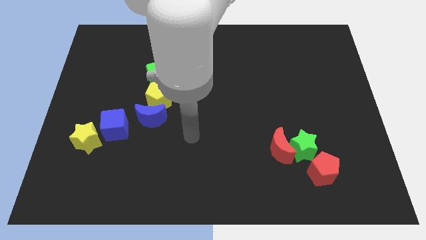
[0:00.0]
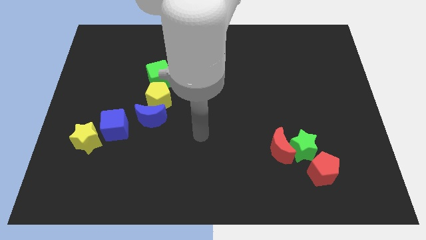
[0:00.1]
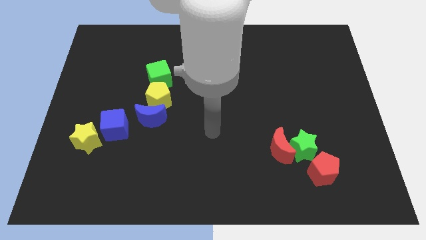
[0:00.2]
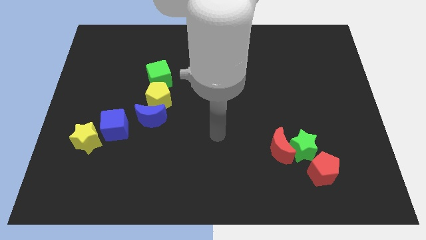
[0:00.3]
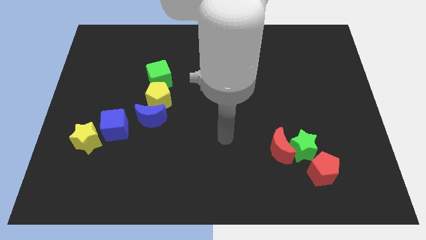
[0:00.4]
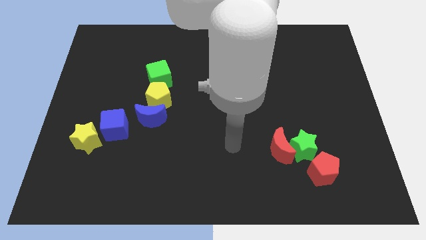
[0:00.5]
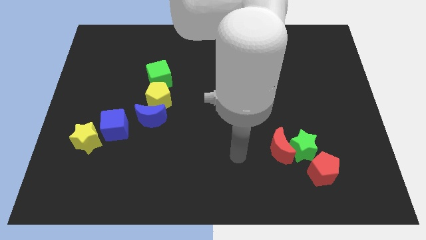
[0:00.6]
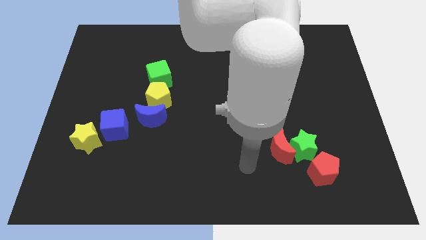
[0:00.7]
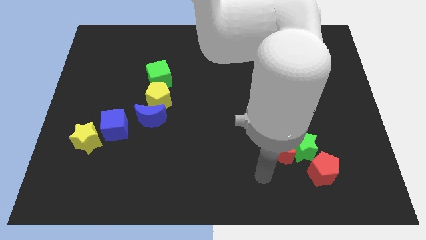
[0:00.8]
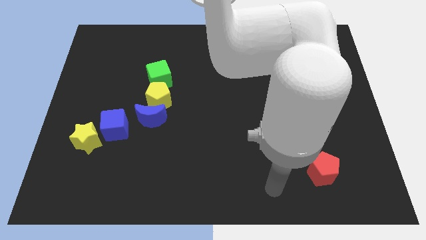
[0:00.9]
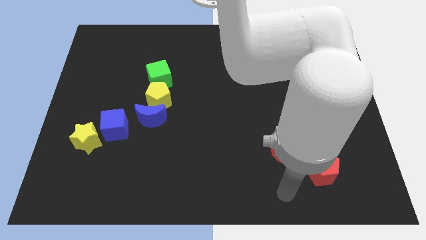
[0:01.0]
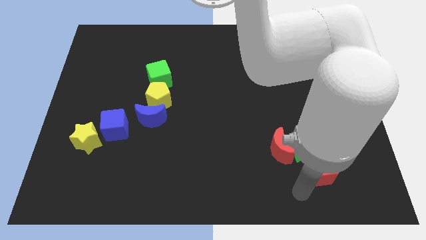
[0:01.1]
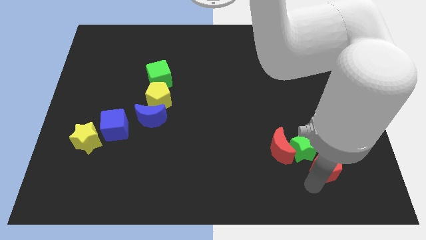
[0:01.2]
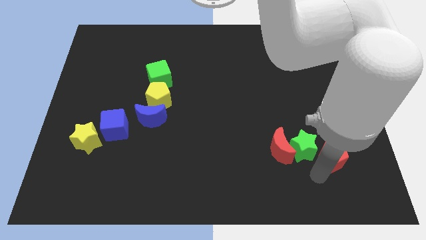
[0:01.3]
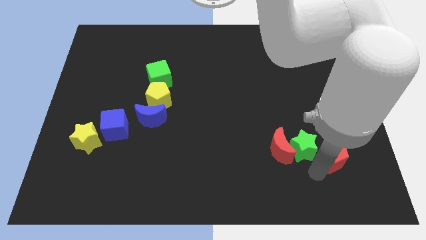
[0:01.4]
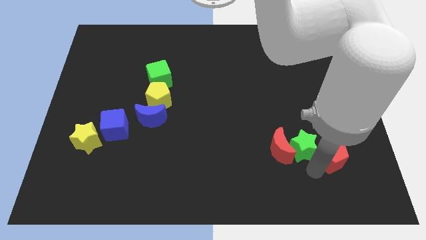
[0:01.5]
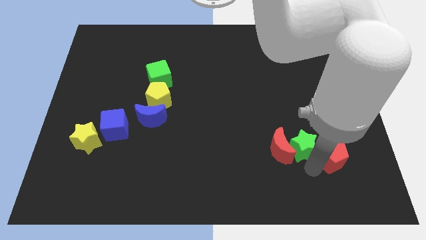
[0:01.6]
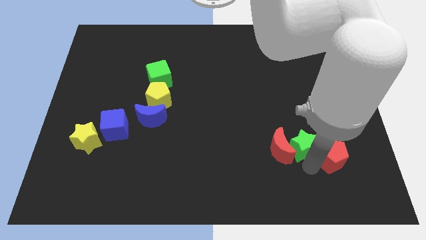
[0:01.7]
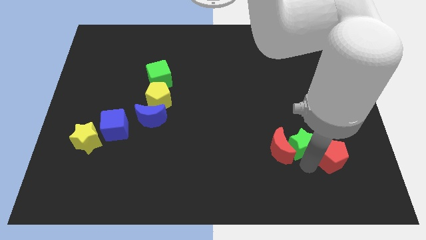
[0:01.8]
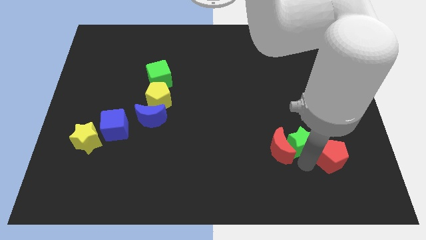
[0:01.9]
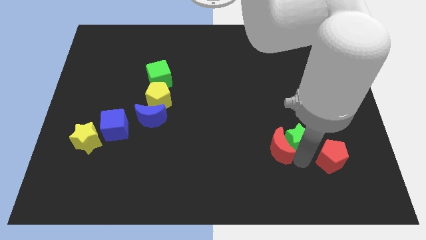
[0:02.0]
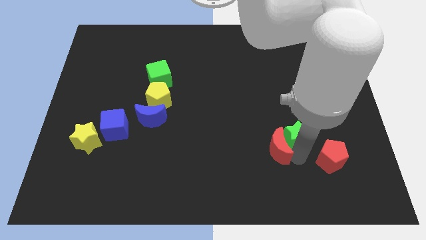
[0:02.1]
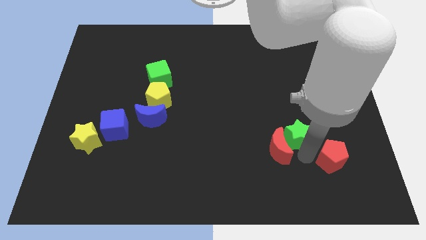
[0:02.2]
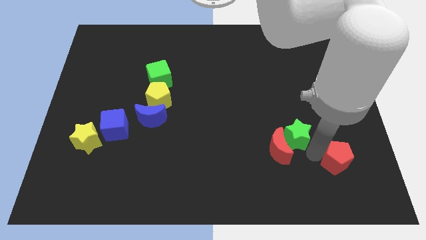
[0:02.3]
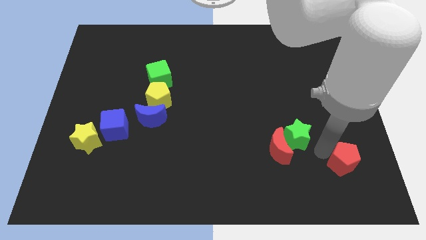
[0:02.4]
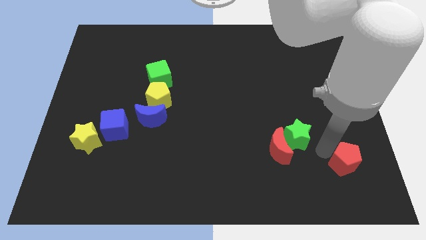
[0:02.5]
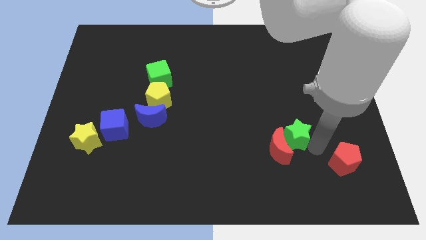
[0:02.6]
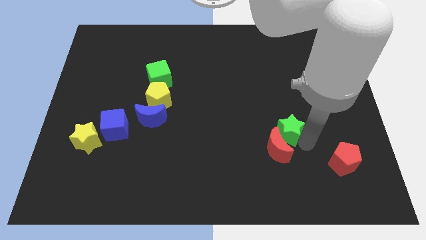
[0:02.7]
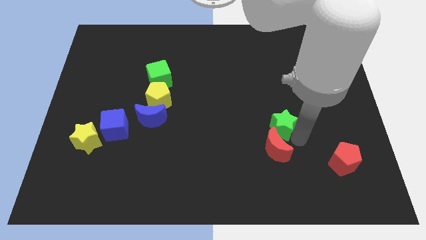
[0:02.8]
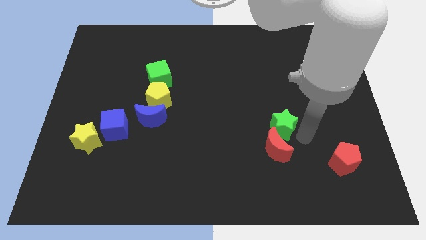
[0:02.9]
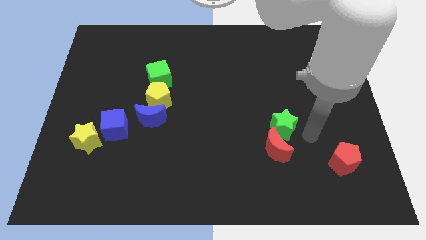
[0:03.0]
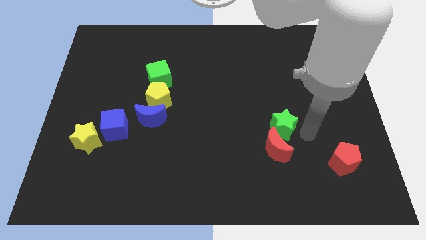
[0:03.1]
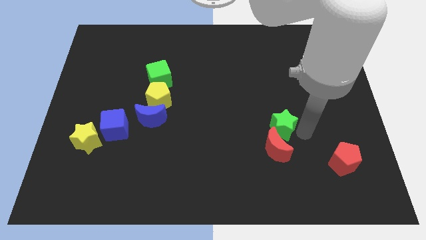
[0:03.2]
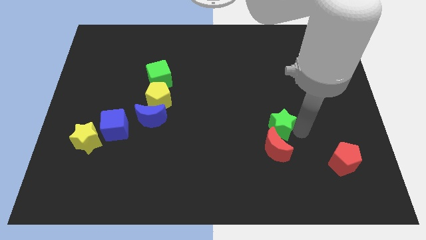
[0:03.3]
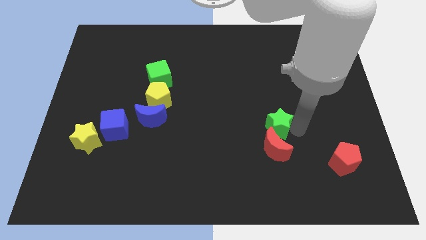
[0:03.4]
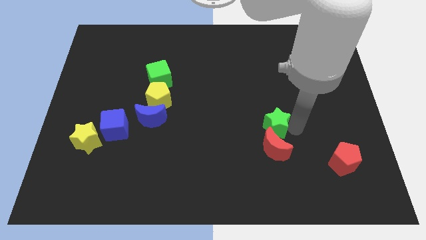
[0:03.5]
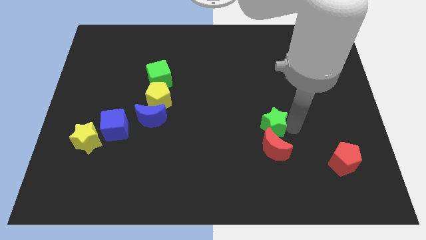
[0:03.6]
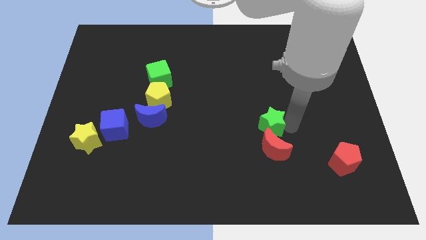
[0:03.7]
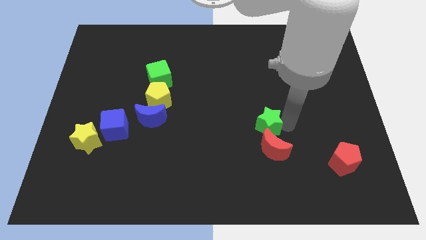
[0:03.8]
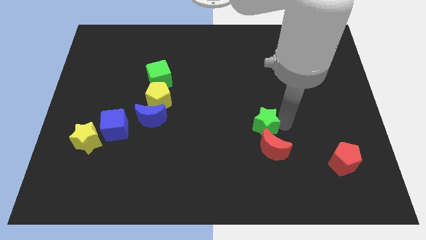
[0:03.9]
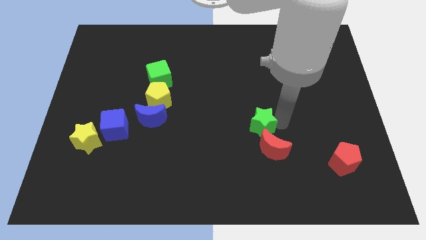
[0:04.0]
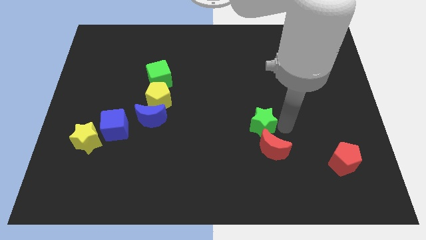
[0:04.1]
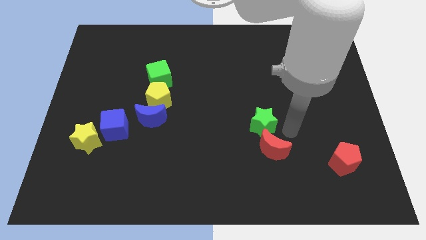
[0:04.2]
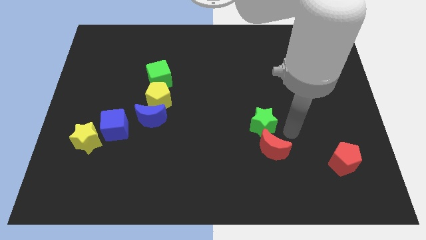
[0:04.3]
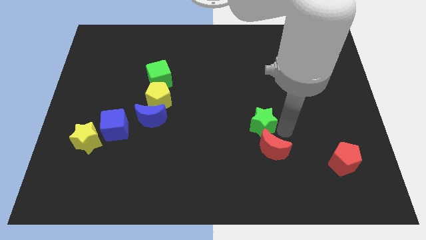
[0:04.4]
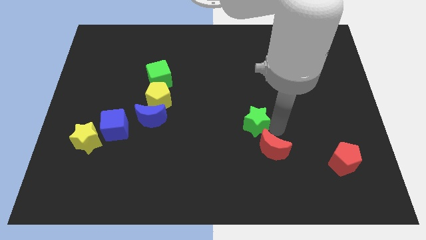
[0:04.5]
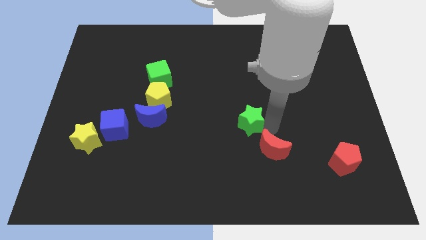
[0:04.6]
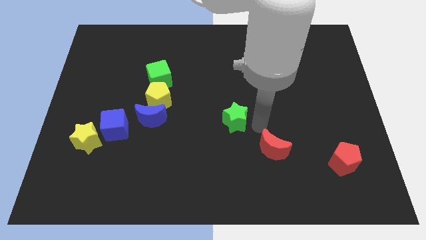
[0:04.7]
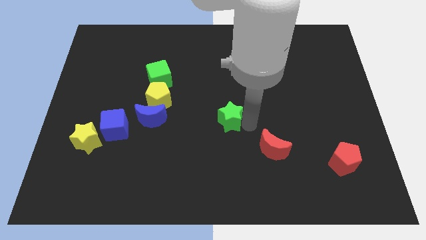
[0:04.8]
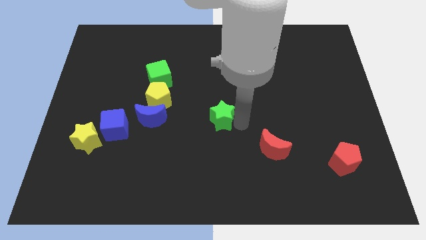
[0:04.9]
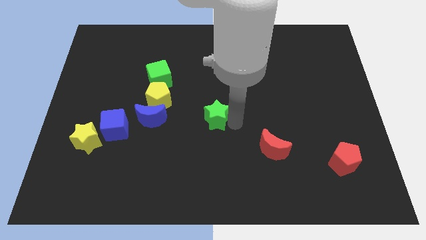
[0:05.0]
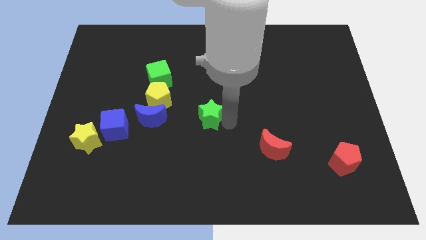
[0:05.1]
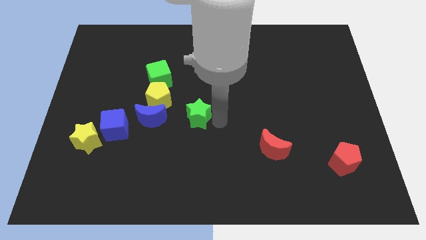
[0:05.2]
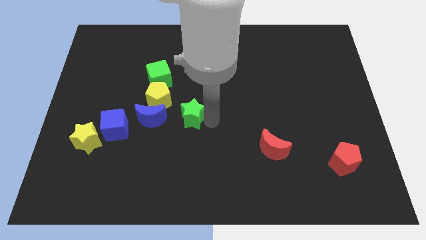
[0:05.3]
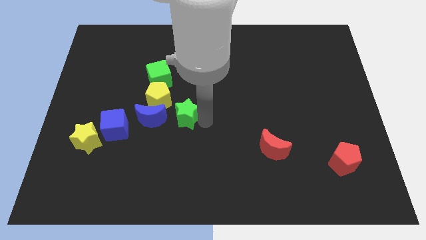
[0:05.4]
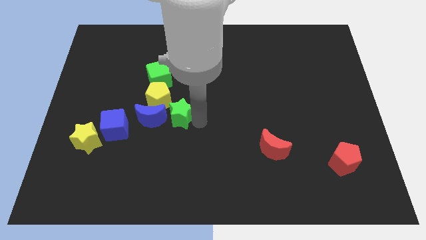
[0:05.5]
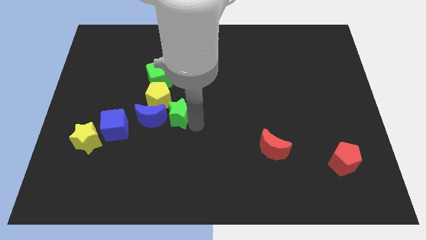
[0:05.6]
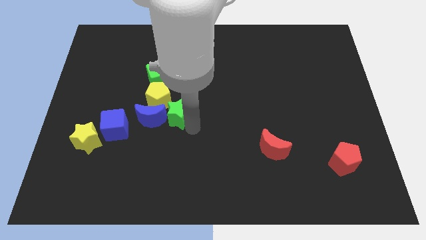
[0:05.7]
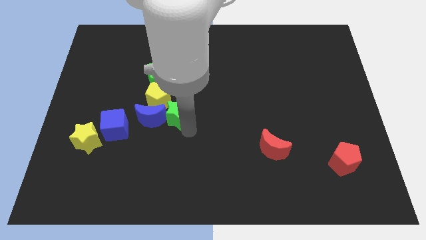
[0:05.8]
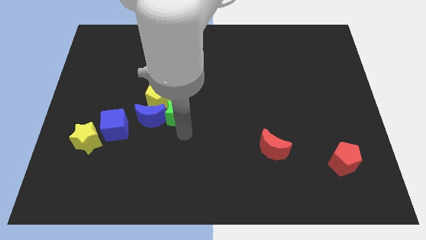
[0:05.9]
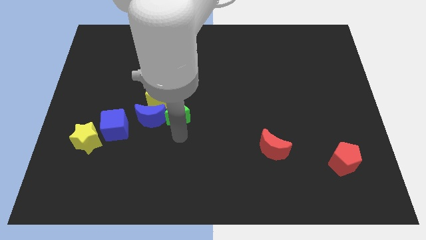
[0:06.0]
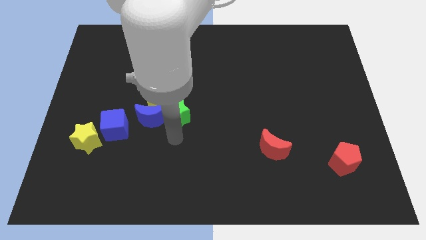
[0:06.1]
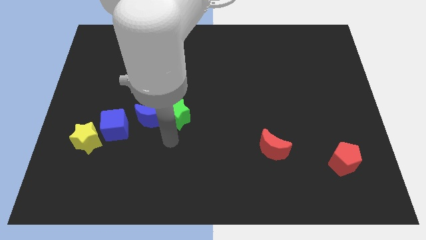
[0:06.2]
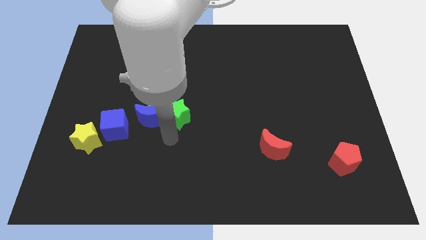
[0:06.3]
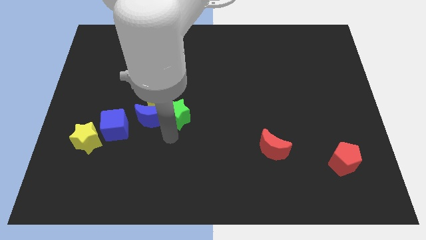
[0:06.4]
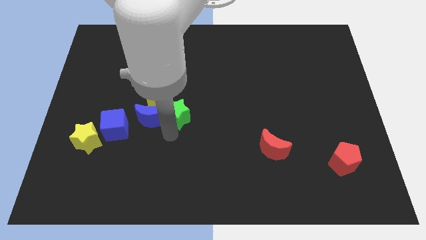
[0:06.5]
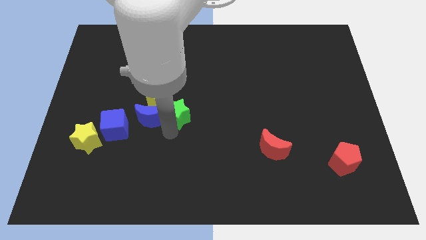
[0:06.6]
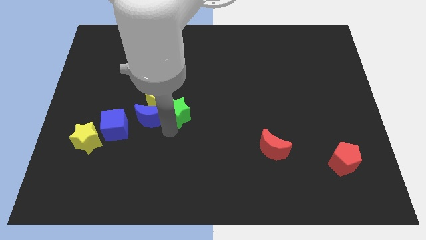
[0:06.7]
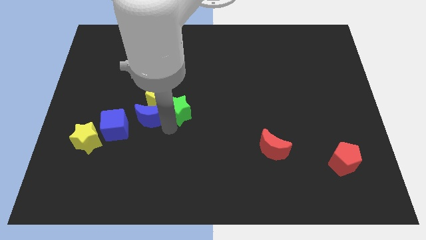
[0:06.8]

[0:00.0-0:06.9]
slide the green star to the yellow pentagon
